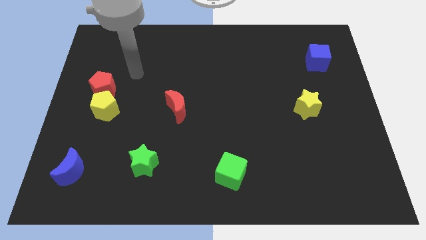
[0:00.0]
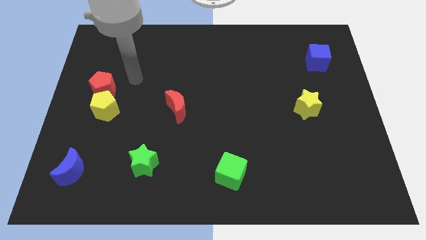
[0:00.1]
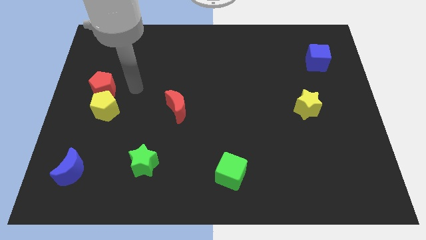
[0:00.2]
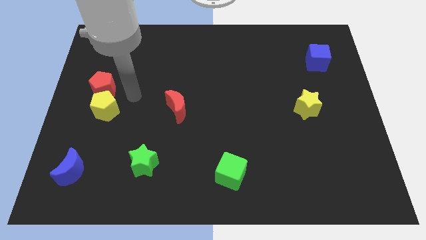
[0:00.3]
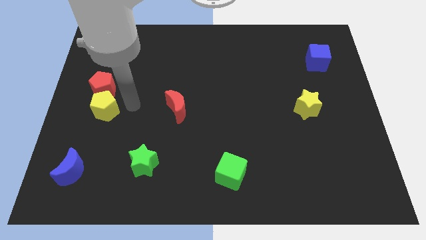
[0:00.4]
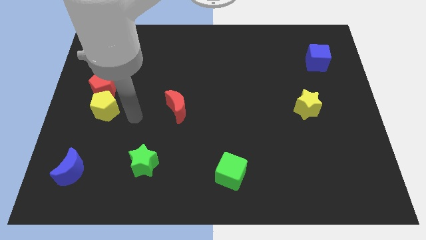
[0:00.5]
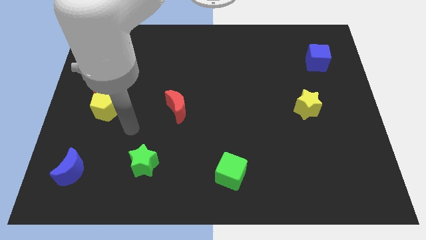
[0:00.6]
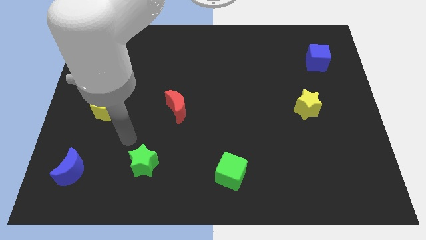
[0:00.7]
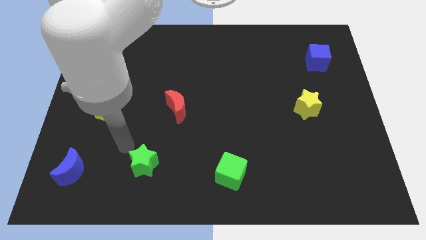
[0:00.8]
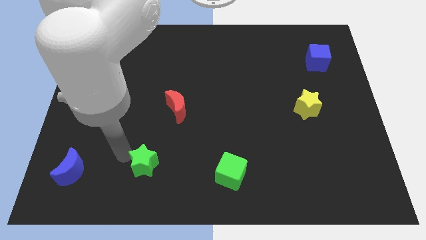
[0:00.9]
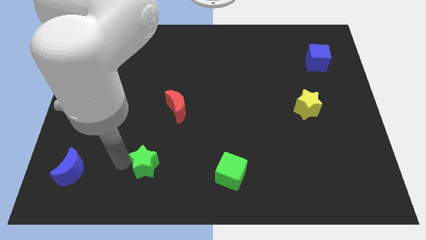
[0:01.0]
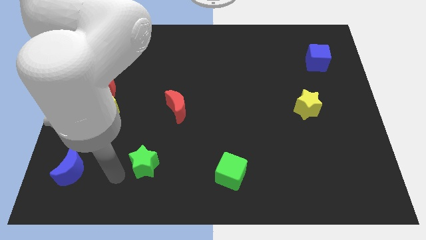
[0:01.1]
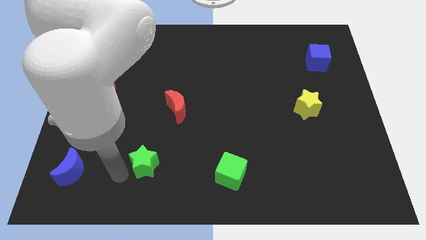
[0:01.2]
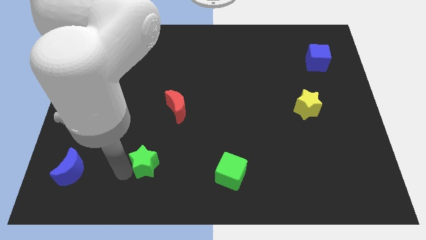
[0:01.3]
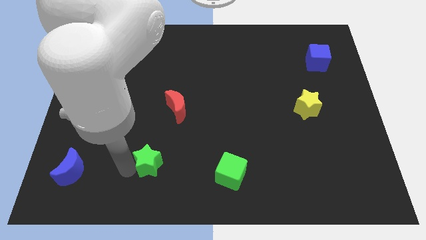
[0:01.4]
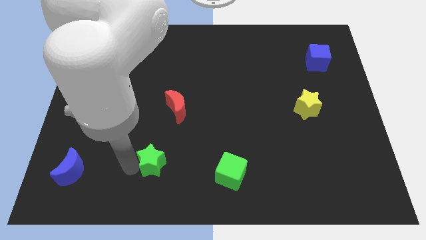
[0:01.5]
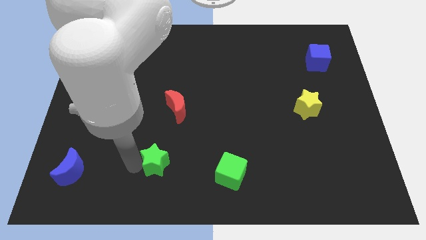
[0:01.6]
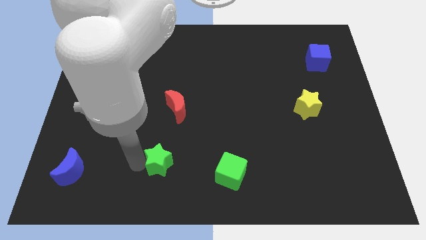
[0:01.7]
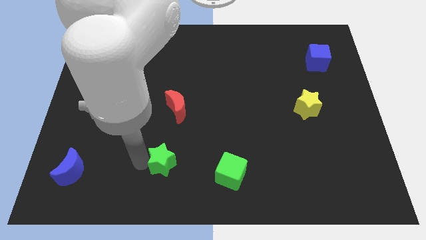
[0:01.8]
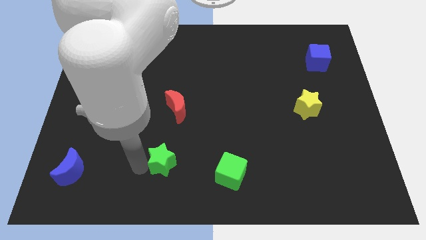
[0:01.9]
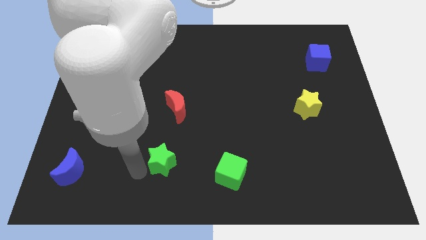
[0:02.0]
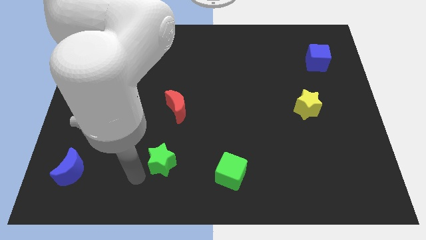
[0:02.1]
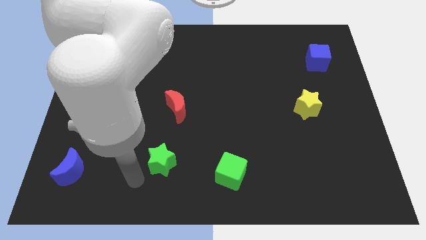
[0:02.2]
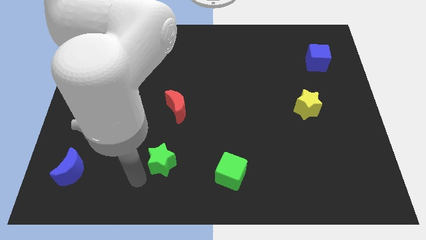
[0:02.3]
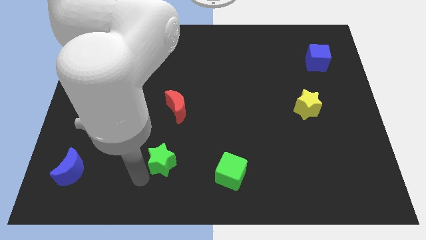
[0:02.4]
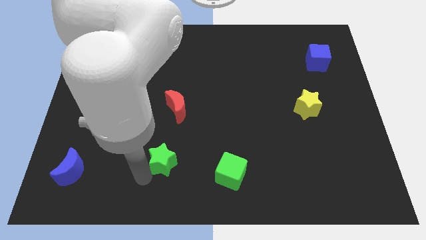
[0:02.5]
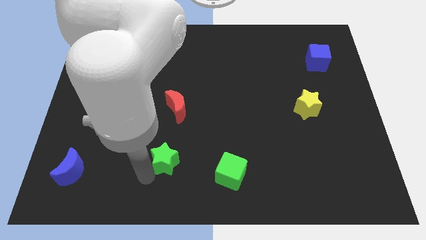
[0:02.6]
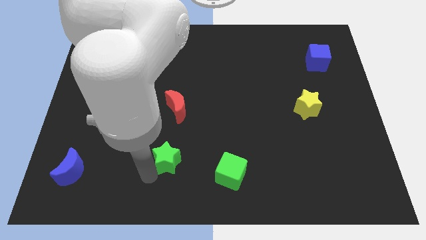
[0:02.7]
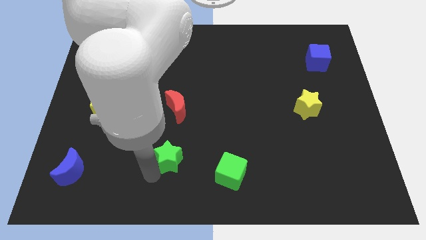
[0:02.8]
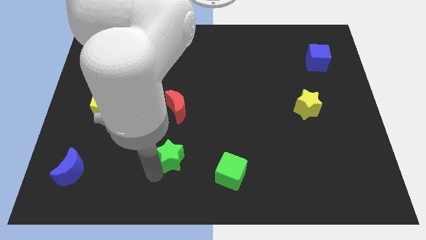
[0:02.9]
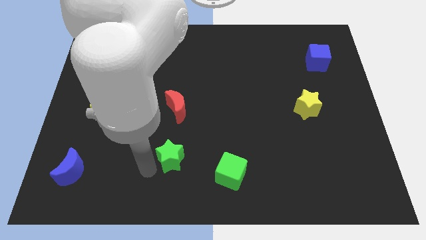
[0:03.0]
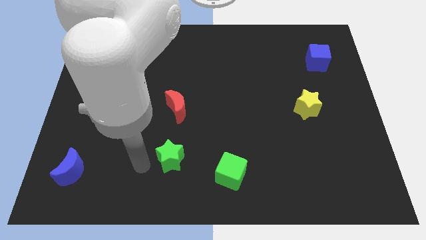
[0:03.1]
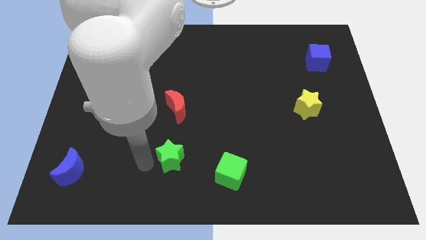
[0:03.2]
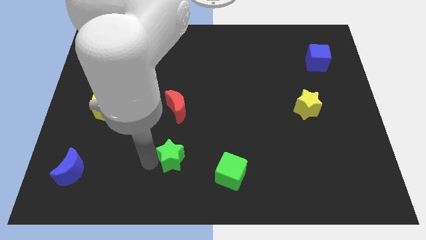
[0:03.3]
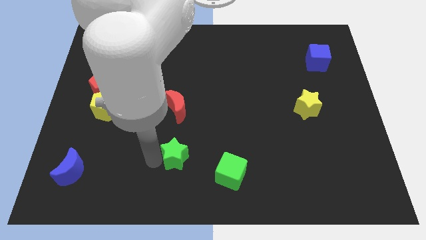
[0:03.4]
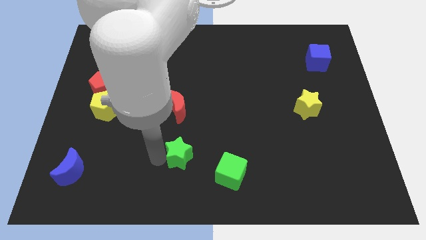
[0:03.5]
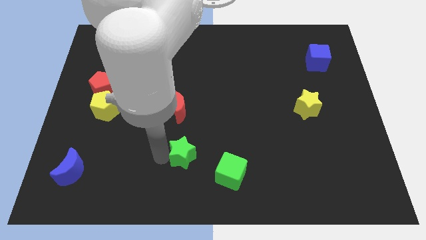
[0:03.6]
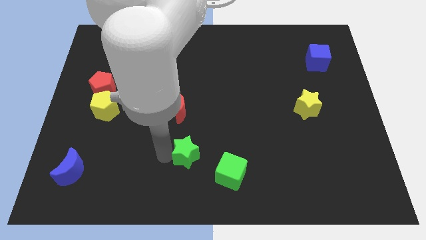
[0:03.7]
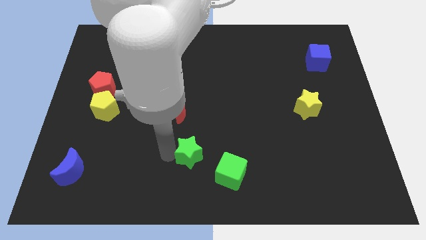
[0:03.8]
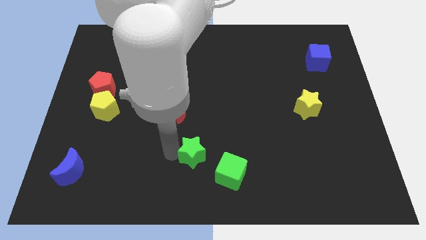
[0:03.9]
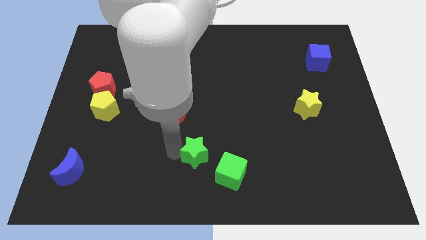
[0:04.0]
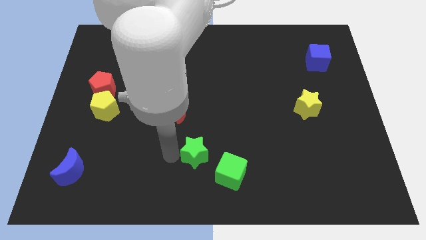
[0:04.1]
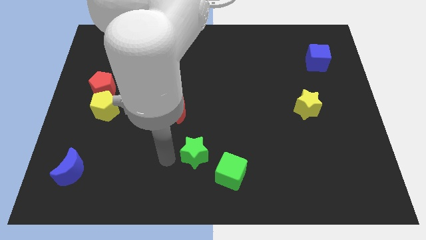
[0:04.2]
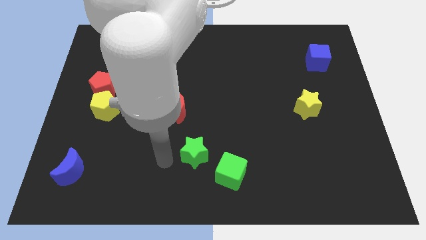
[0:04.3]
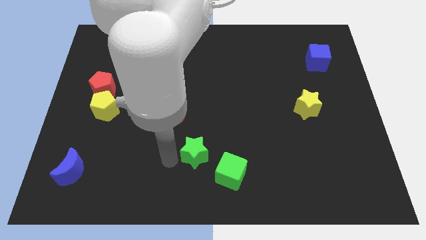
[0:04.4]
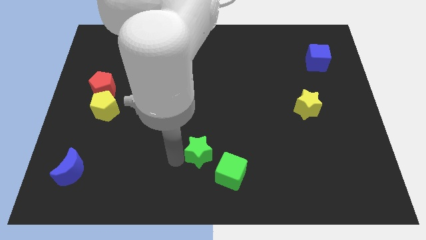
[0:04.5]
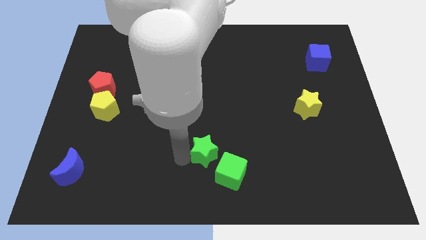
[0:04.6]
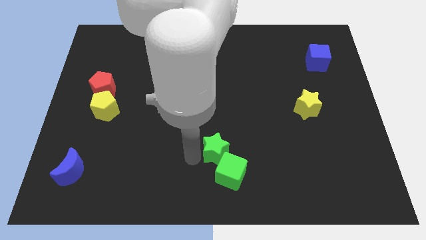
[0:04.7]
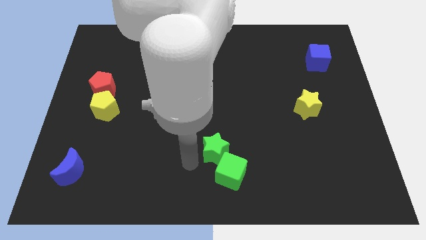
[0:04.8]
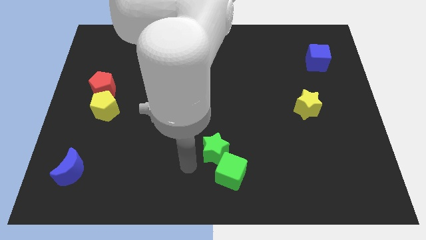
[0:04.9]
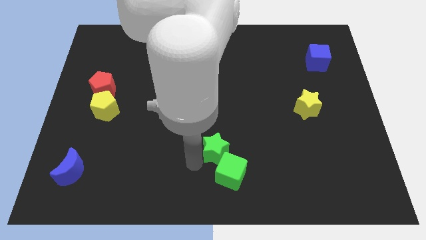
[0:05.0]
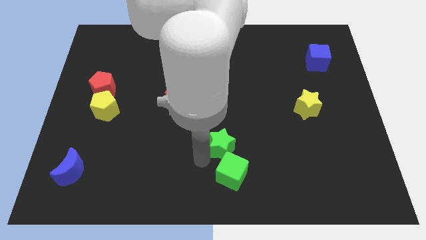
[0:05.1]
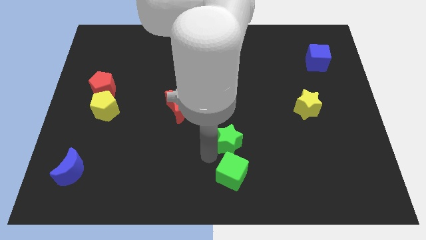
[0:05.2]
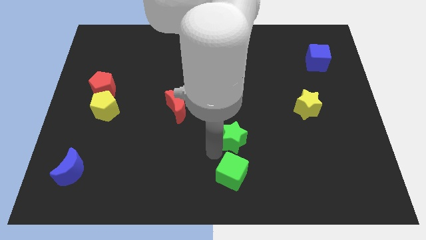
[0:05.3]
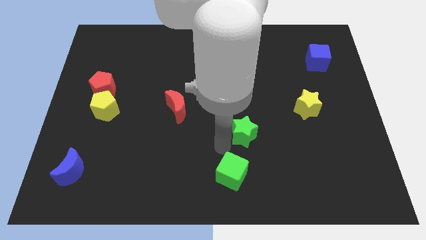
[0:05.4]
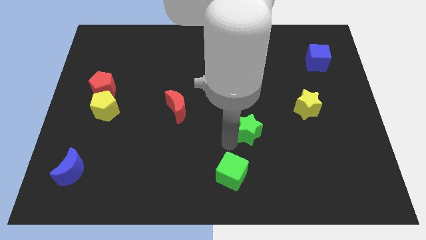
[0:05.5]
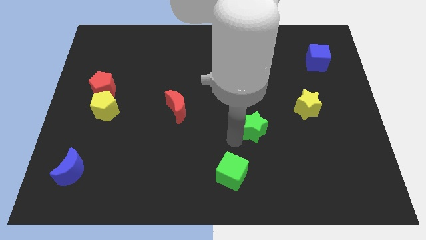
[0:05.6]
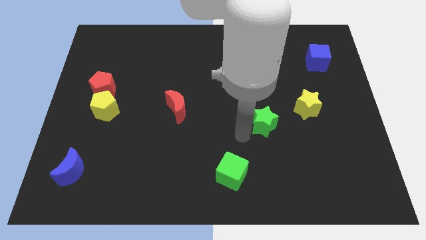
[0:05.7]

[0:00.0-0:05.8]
slide the green star to the bottom left of the yellow star
